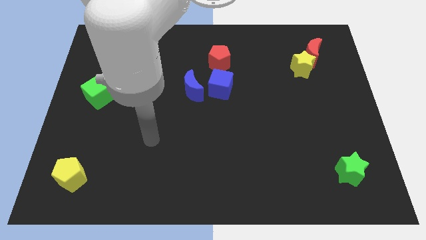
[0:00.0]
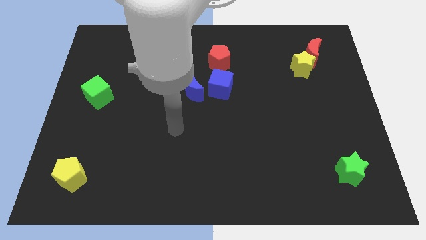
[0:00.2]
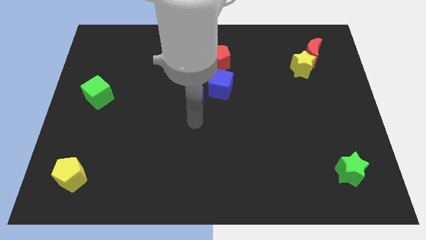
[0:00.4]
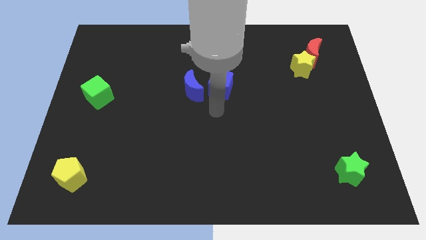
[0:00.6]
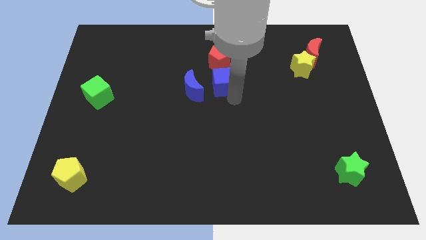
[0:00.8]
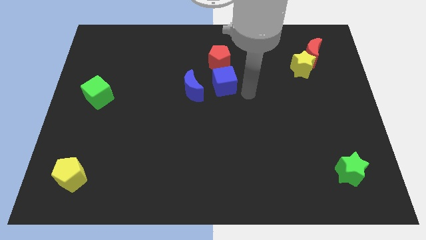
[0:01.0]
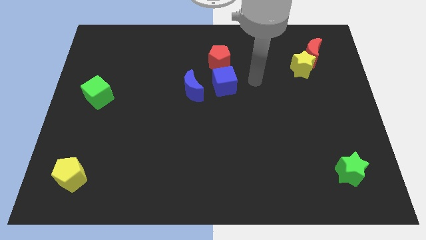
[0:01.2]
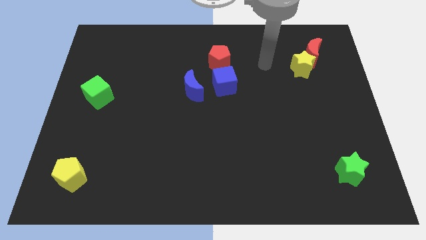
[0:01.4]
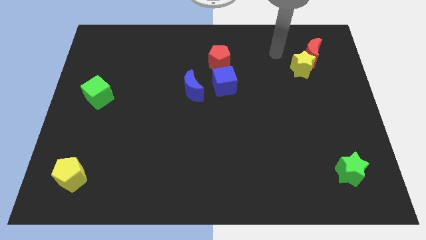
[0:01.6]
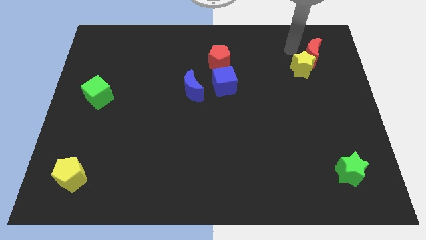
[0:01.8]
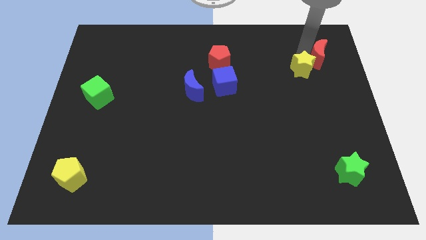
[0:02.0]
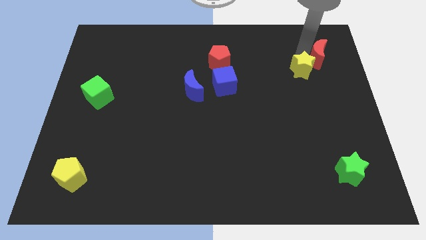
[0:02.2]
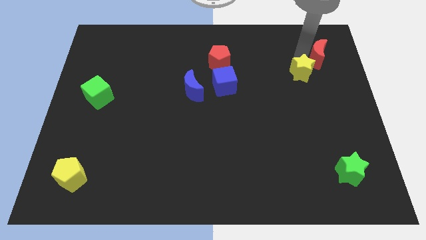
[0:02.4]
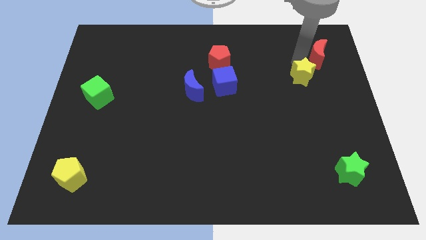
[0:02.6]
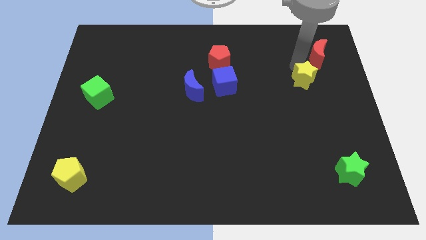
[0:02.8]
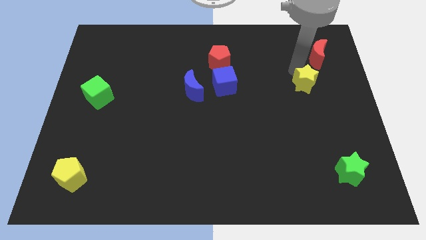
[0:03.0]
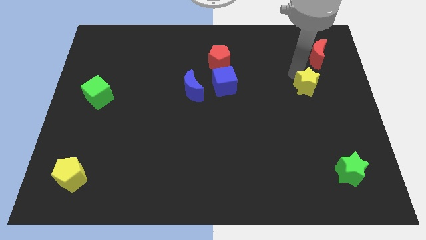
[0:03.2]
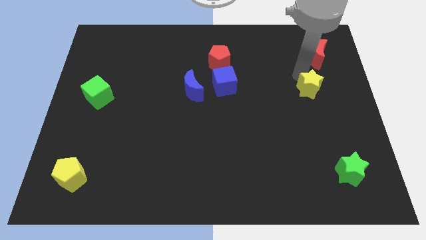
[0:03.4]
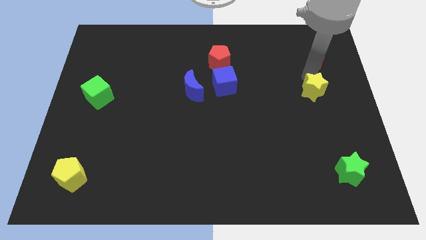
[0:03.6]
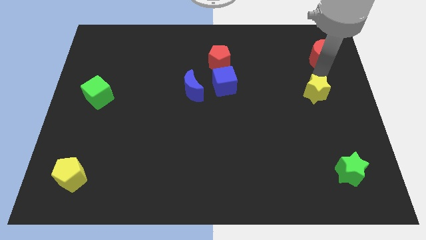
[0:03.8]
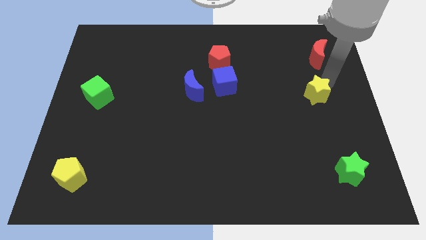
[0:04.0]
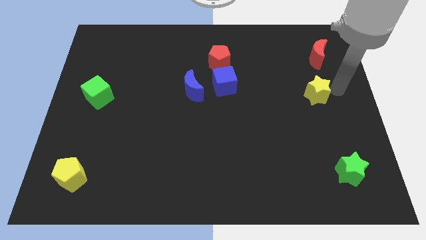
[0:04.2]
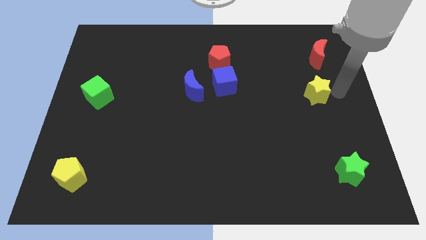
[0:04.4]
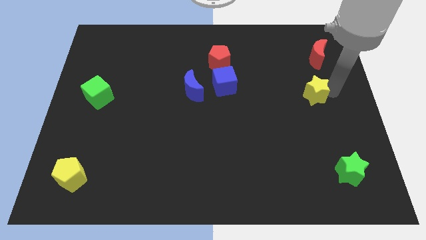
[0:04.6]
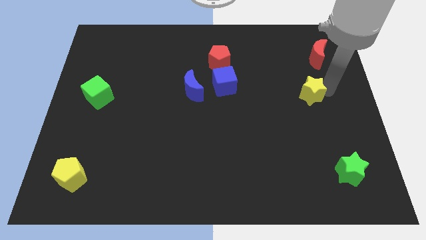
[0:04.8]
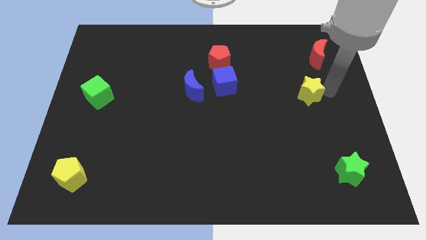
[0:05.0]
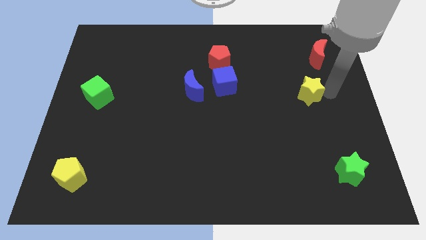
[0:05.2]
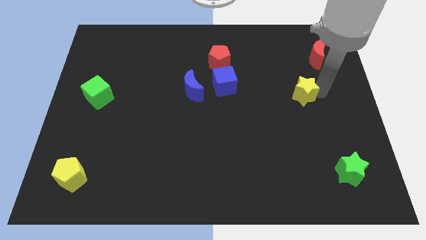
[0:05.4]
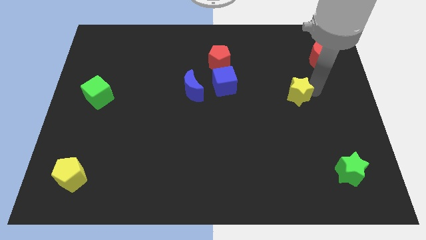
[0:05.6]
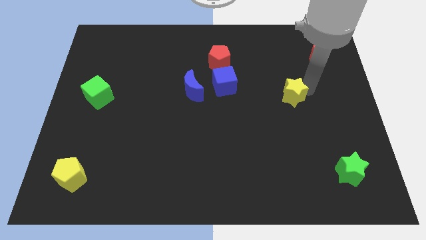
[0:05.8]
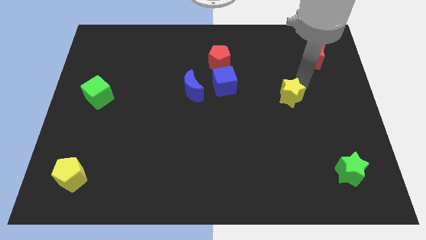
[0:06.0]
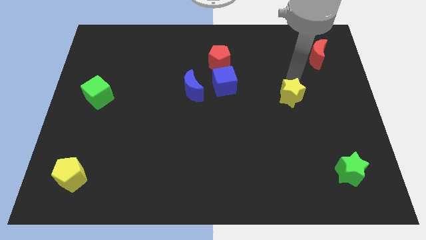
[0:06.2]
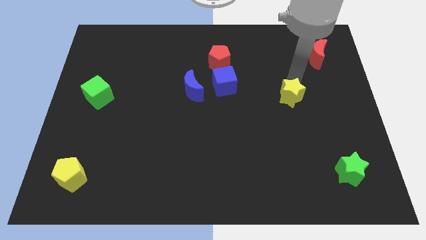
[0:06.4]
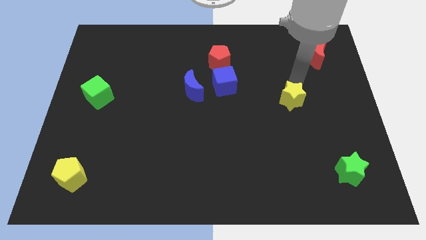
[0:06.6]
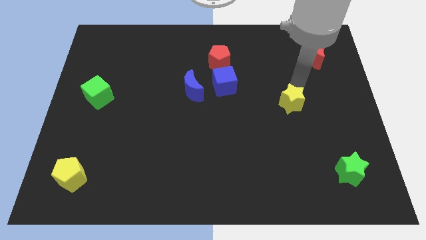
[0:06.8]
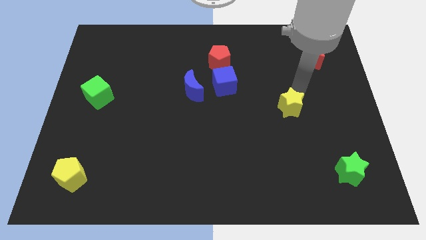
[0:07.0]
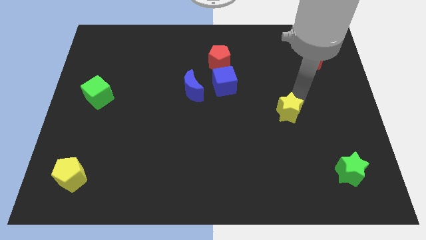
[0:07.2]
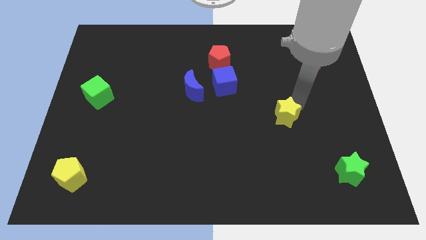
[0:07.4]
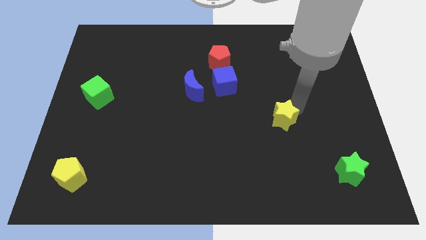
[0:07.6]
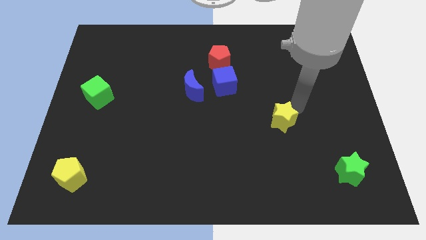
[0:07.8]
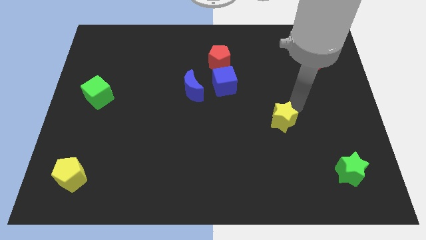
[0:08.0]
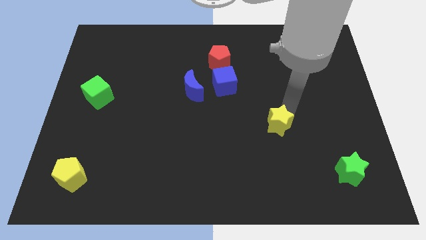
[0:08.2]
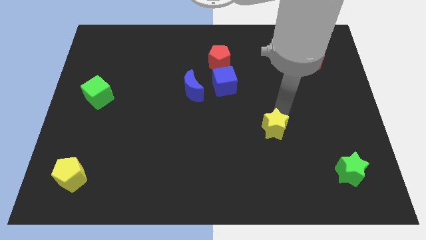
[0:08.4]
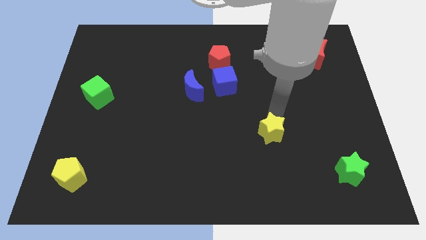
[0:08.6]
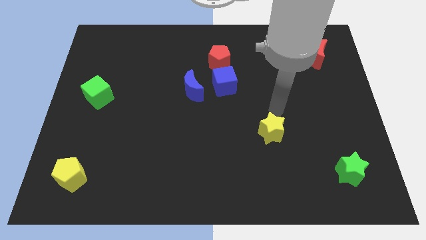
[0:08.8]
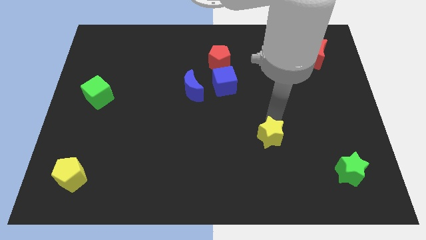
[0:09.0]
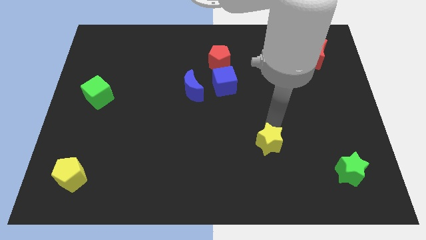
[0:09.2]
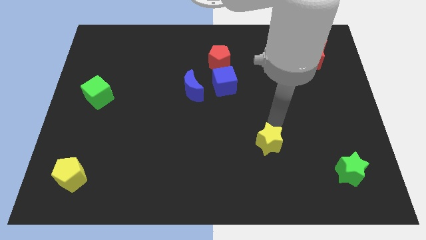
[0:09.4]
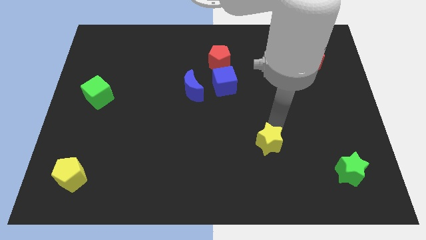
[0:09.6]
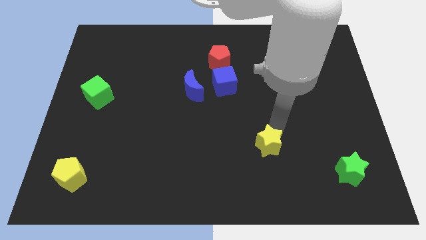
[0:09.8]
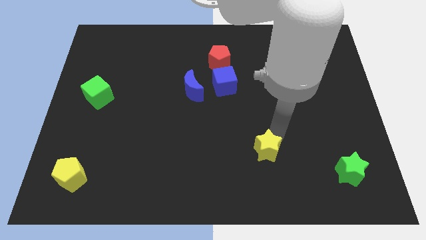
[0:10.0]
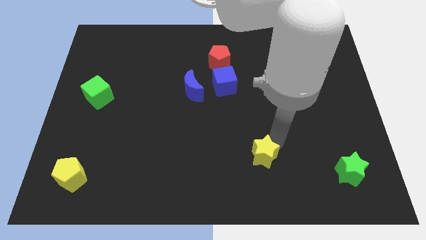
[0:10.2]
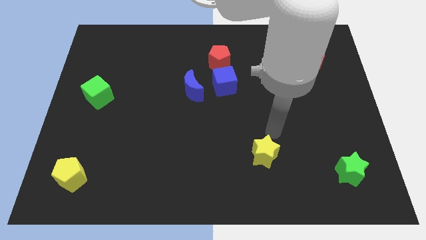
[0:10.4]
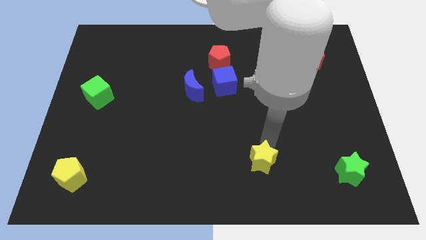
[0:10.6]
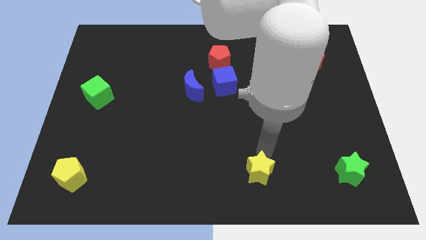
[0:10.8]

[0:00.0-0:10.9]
push the yellow star to the bottom side
